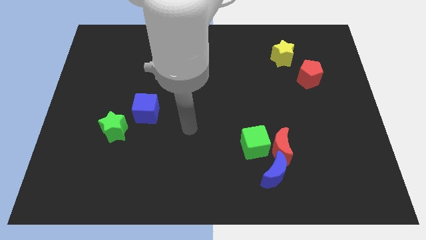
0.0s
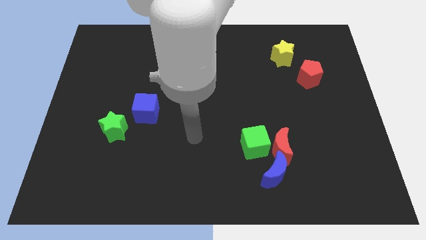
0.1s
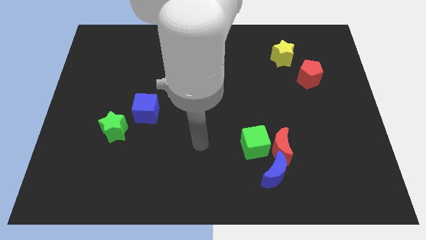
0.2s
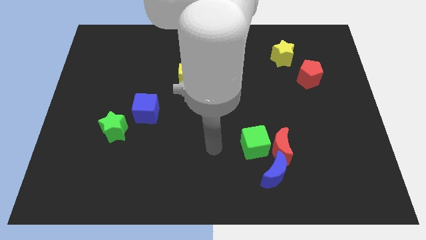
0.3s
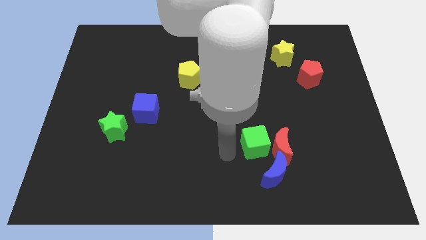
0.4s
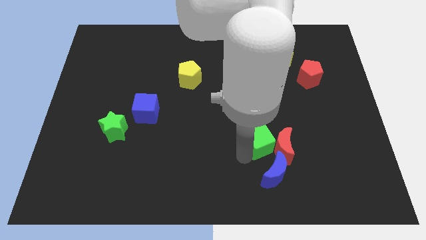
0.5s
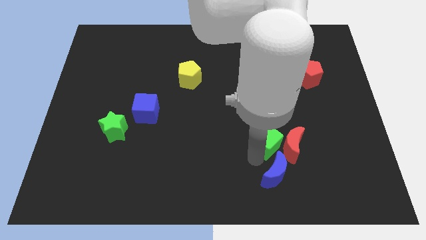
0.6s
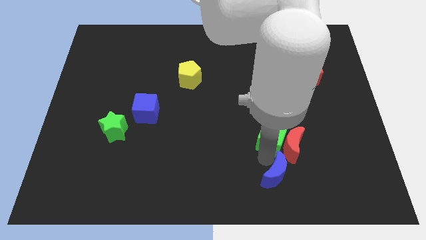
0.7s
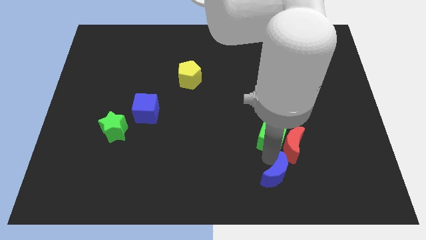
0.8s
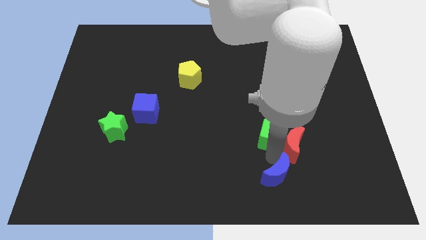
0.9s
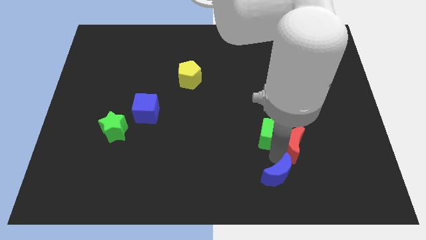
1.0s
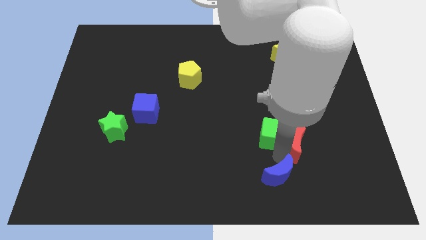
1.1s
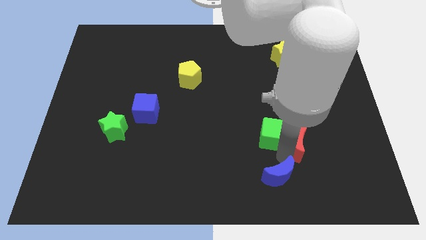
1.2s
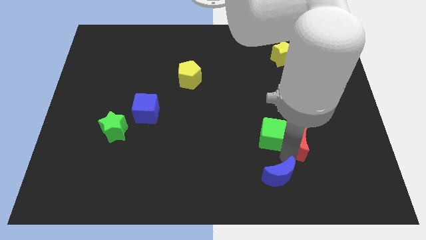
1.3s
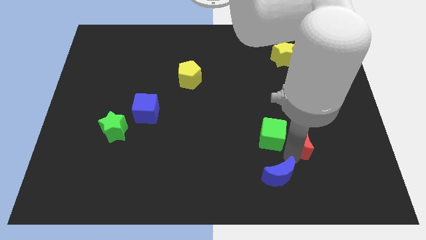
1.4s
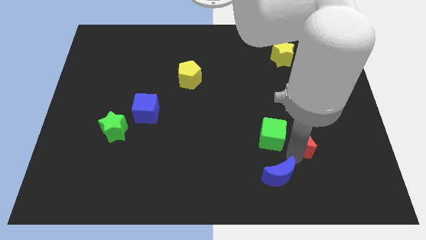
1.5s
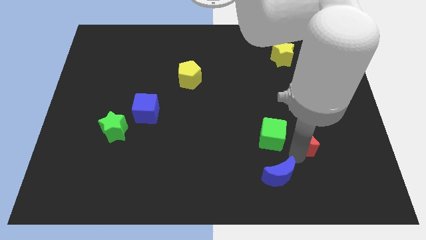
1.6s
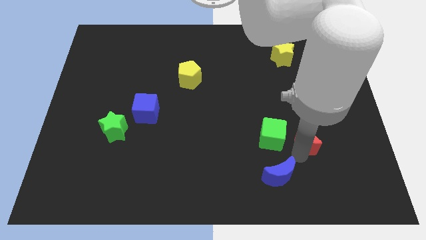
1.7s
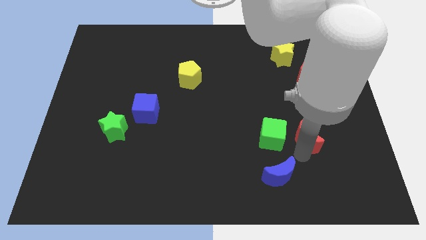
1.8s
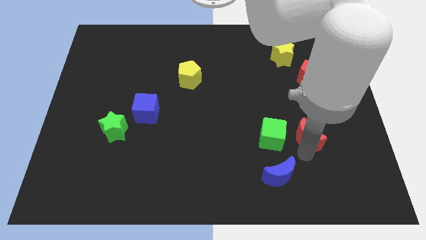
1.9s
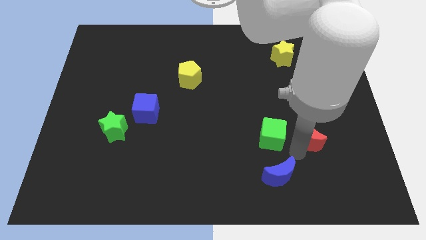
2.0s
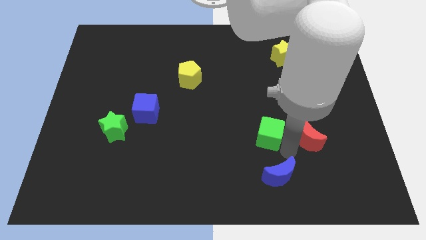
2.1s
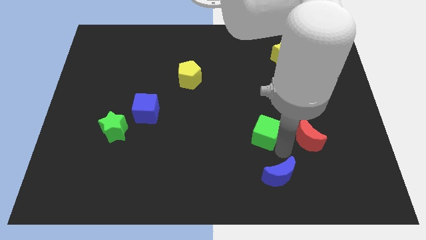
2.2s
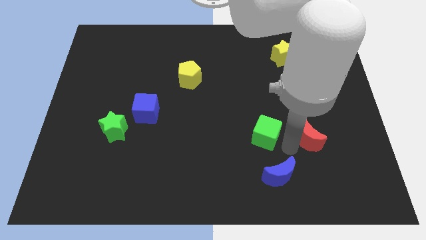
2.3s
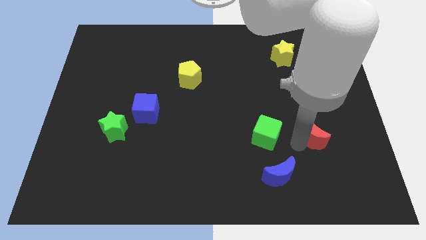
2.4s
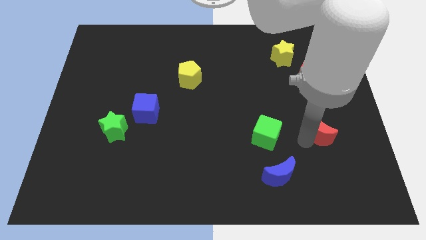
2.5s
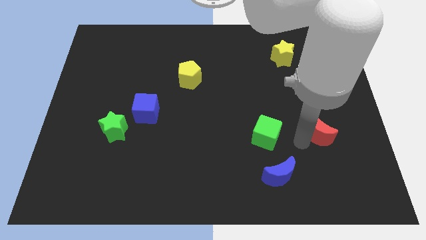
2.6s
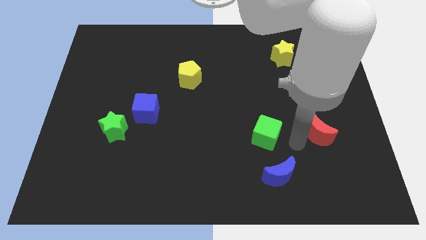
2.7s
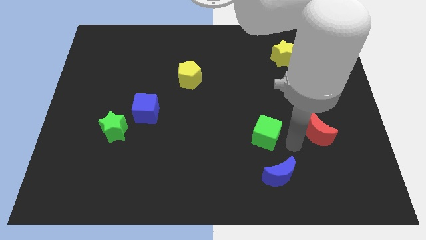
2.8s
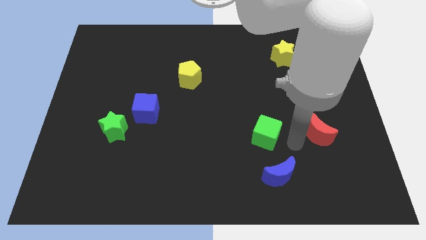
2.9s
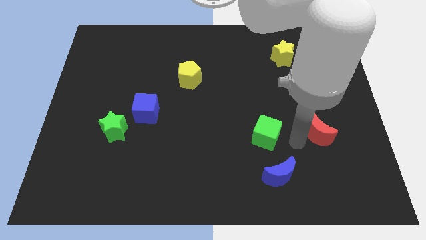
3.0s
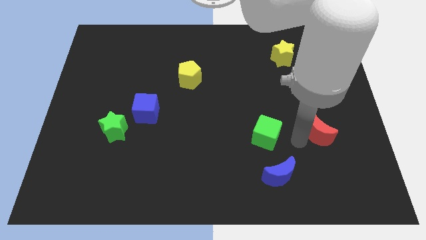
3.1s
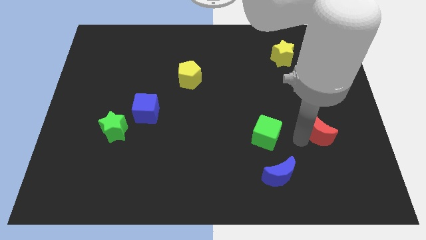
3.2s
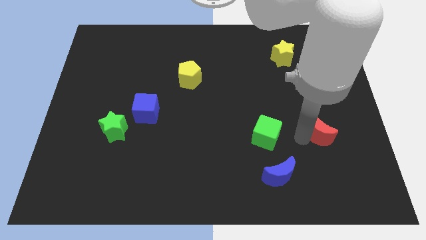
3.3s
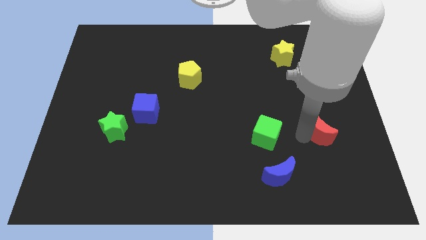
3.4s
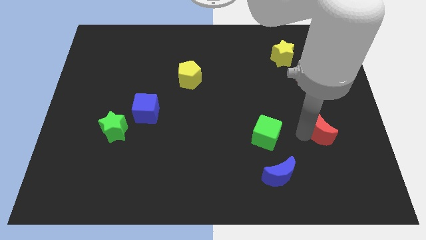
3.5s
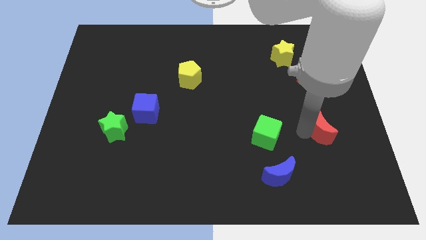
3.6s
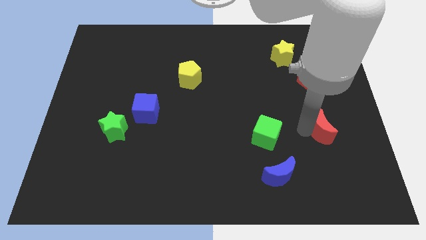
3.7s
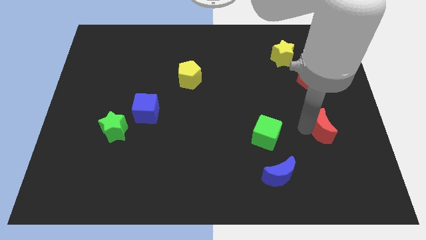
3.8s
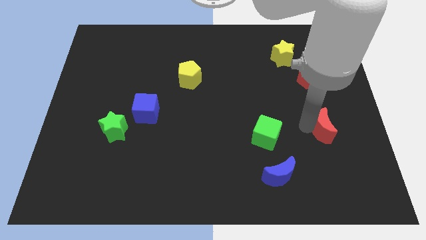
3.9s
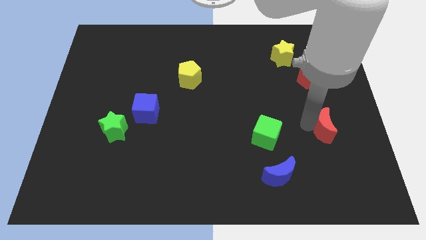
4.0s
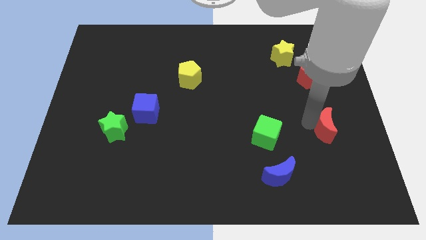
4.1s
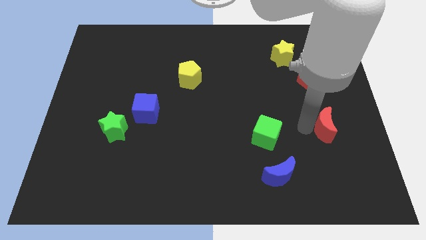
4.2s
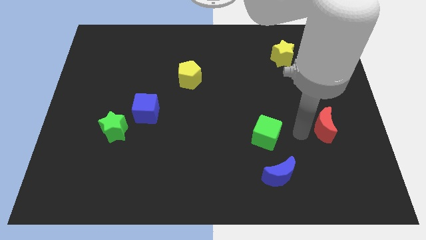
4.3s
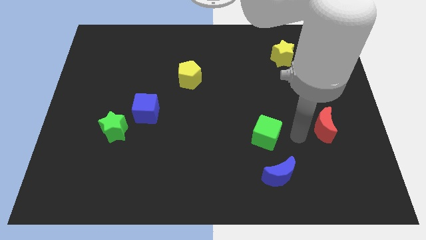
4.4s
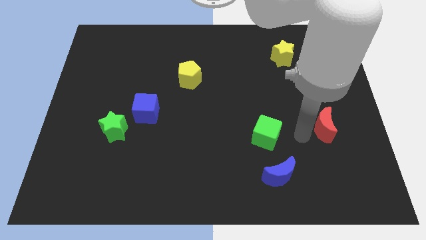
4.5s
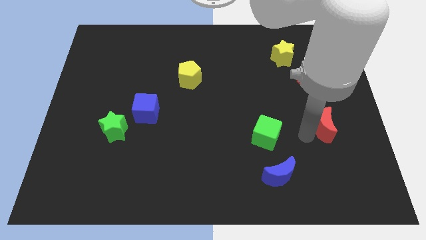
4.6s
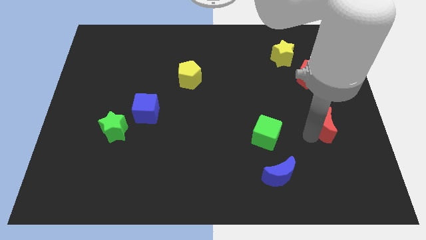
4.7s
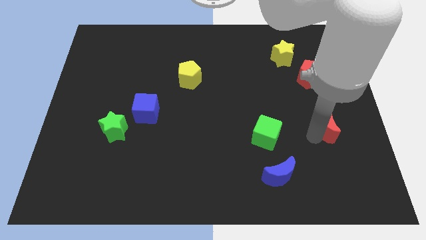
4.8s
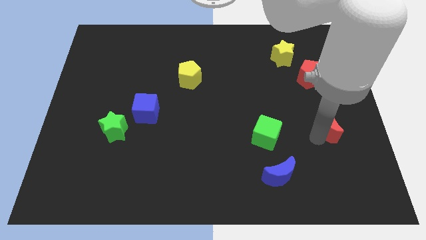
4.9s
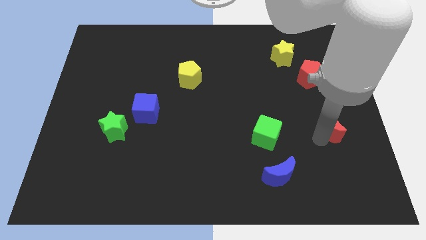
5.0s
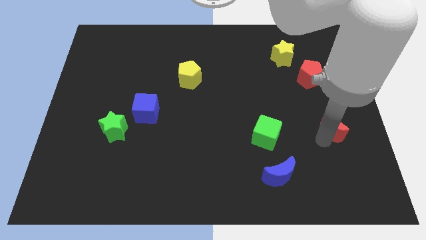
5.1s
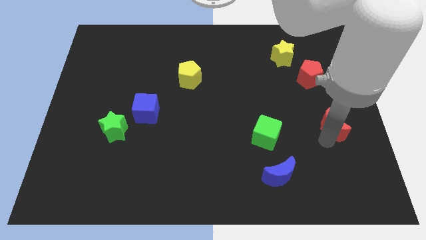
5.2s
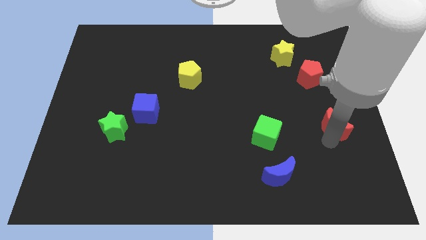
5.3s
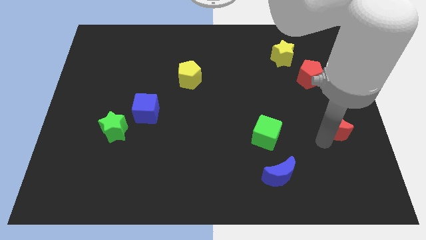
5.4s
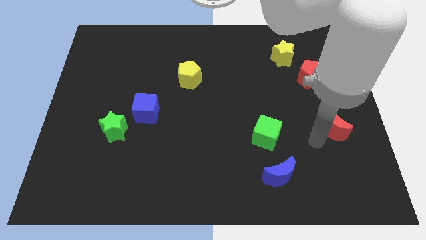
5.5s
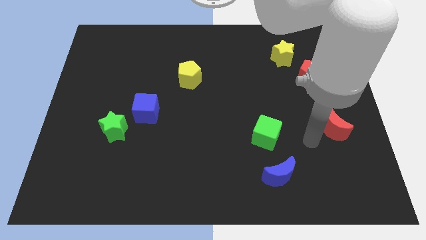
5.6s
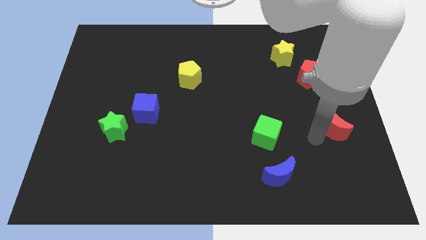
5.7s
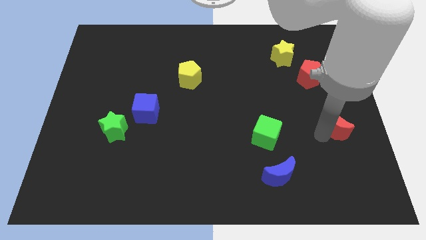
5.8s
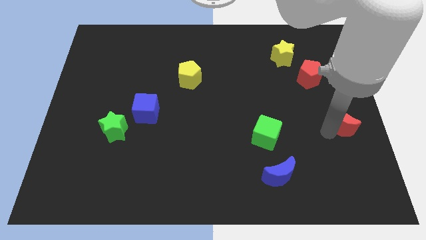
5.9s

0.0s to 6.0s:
move the red moon to the center right
